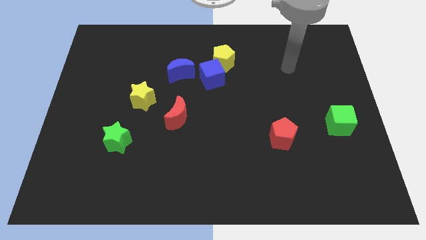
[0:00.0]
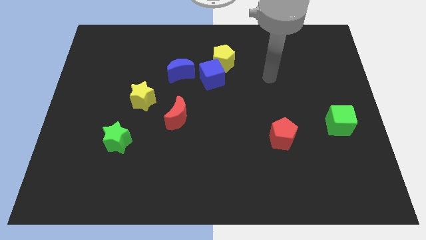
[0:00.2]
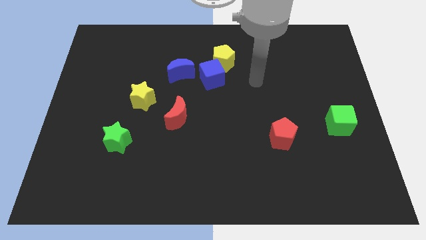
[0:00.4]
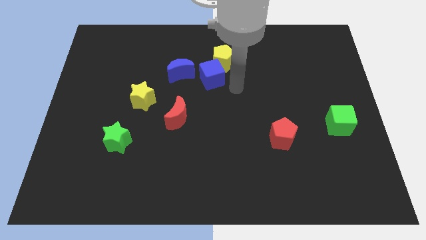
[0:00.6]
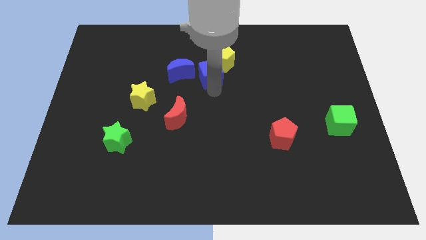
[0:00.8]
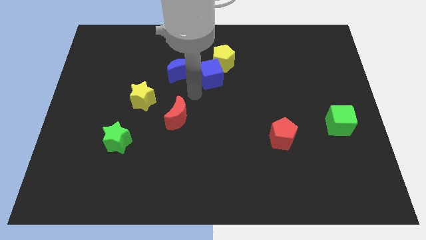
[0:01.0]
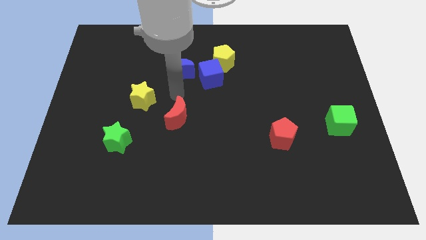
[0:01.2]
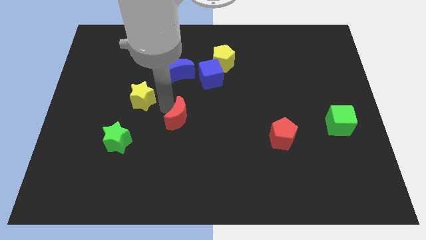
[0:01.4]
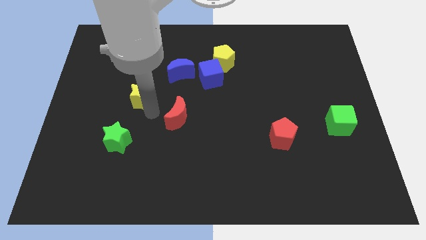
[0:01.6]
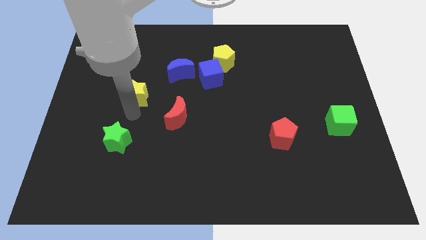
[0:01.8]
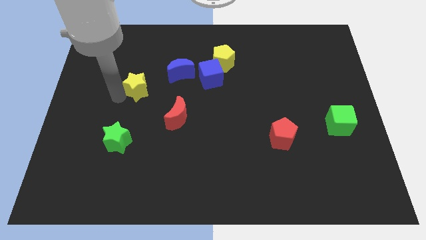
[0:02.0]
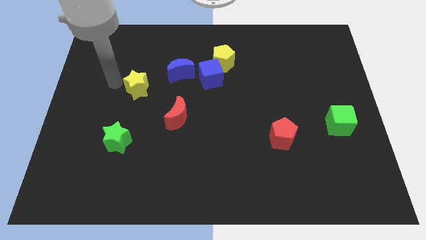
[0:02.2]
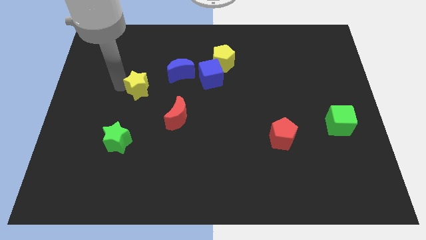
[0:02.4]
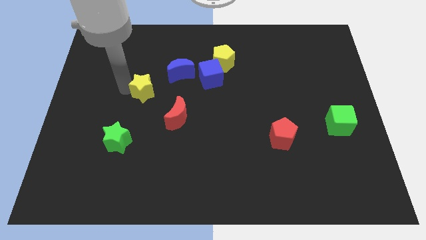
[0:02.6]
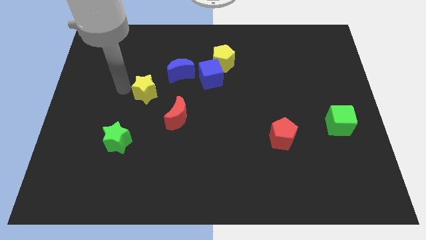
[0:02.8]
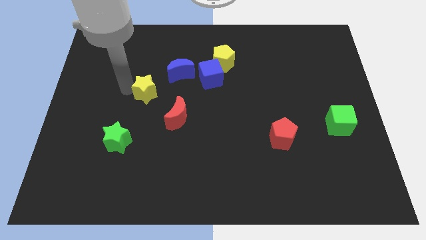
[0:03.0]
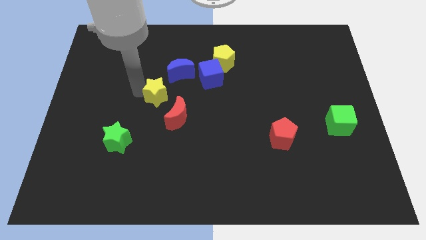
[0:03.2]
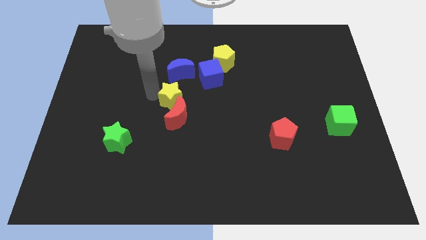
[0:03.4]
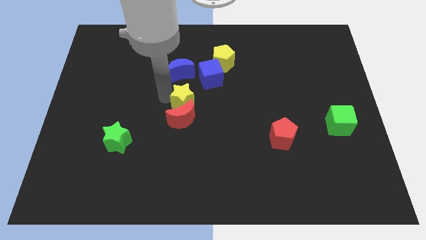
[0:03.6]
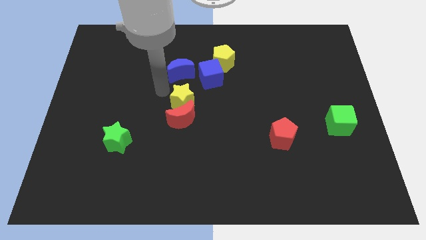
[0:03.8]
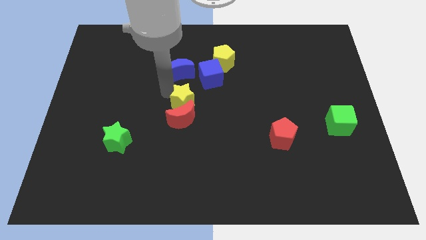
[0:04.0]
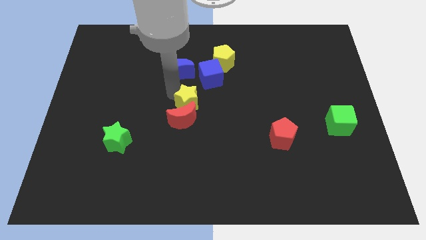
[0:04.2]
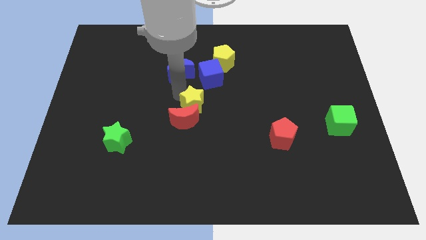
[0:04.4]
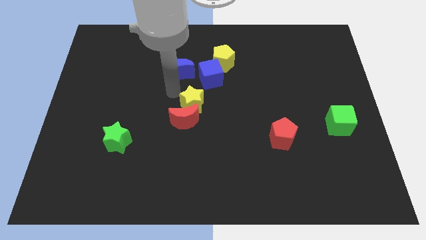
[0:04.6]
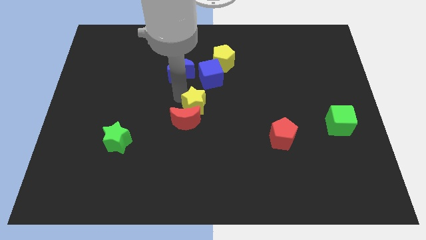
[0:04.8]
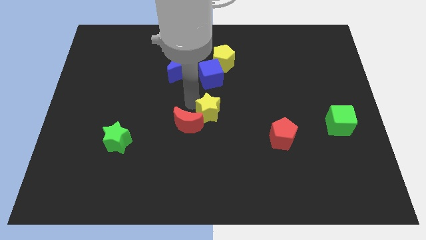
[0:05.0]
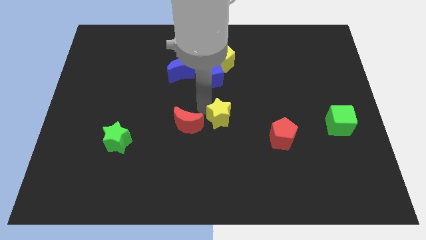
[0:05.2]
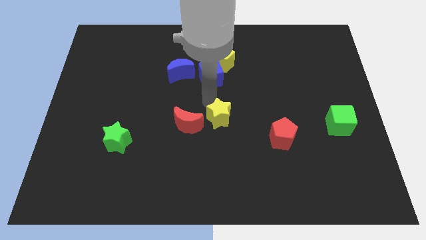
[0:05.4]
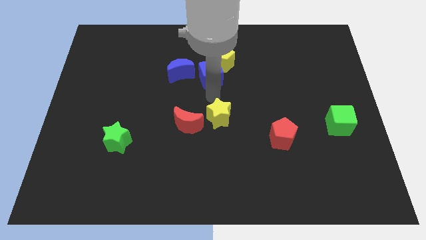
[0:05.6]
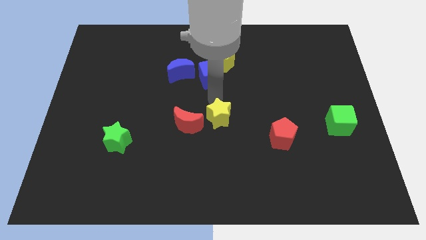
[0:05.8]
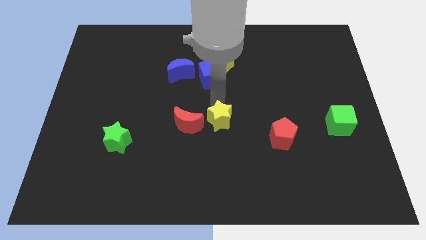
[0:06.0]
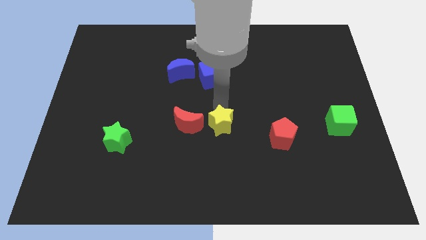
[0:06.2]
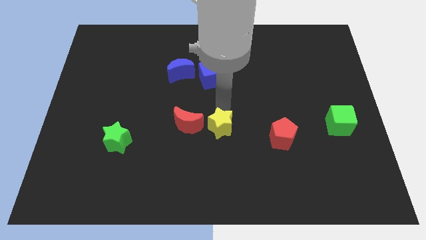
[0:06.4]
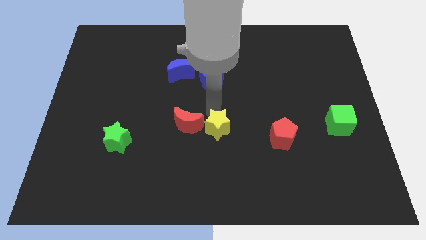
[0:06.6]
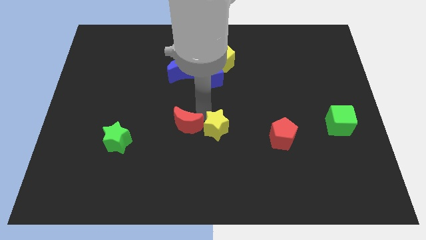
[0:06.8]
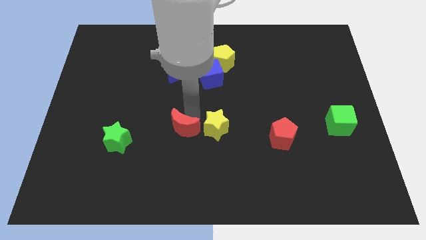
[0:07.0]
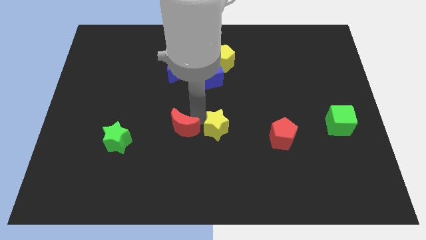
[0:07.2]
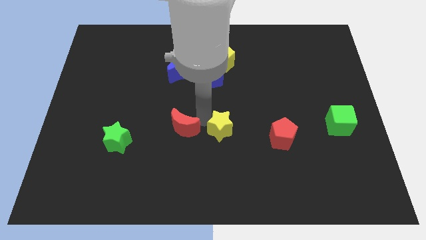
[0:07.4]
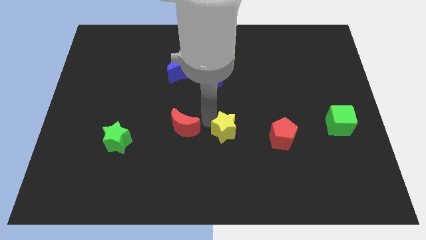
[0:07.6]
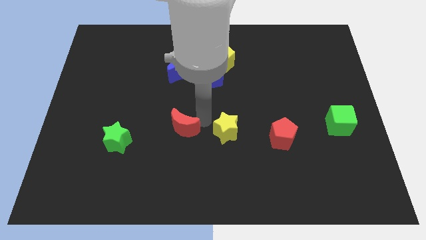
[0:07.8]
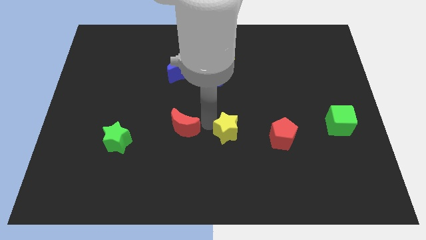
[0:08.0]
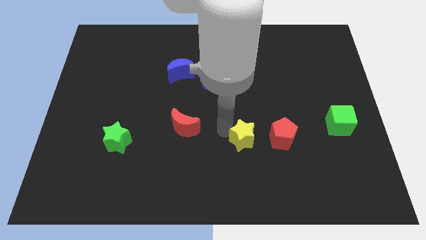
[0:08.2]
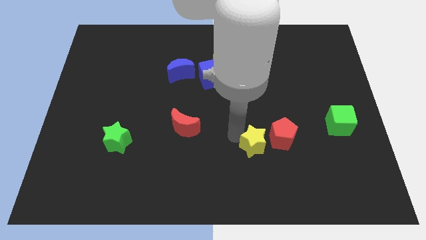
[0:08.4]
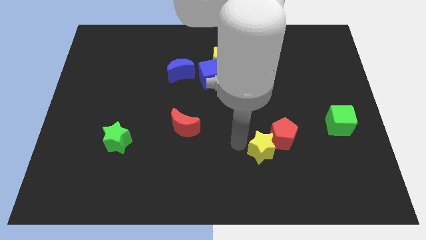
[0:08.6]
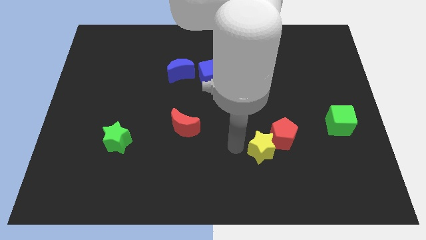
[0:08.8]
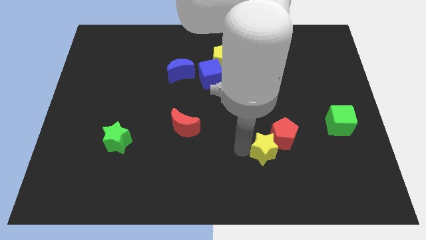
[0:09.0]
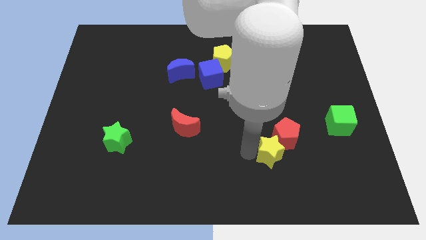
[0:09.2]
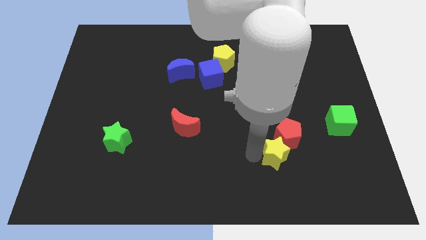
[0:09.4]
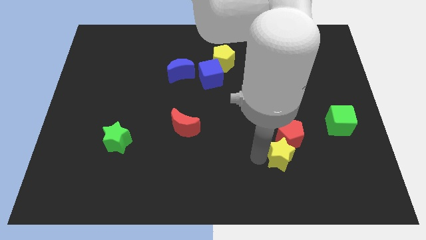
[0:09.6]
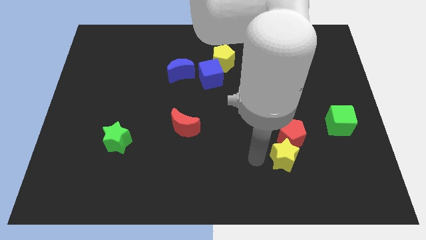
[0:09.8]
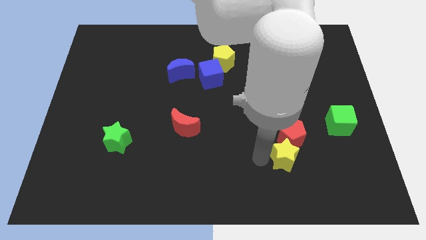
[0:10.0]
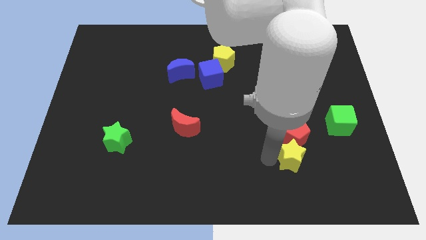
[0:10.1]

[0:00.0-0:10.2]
push the yellow star to the bottom right side of the red pentagon

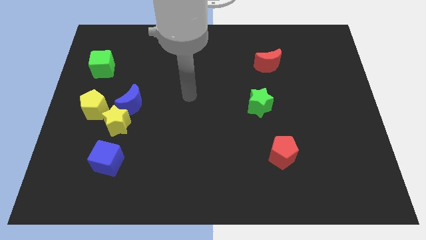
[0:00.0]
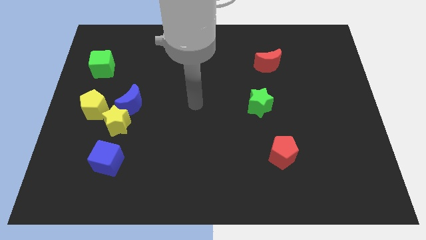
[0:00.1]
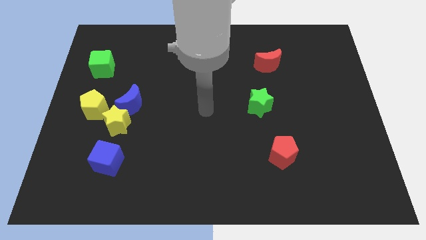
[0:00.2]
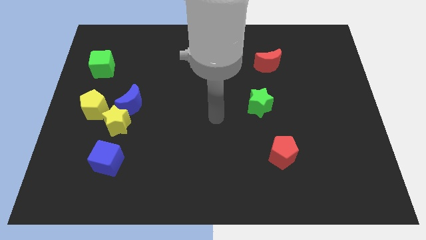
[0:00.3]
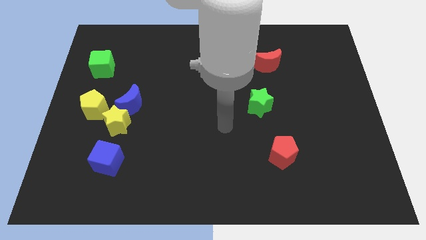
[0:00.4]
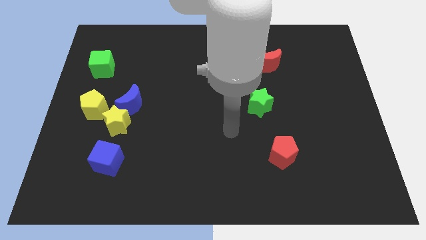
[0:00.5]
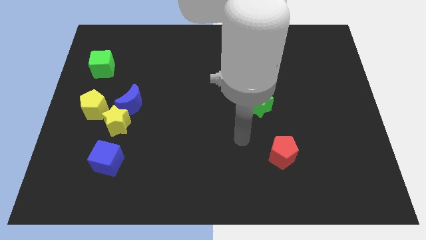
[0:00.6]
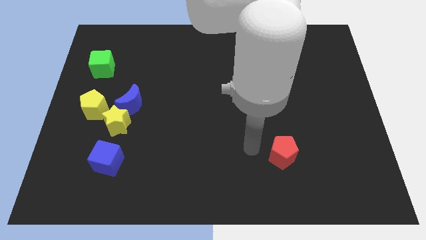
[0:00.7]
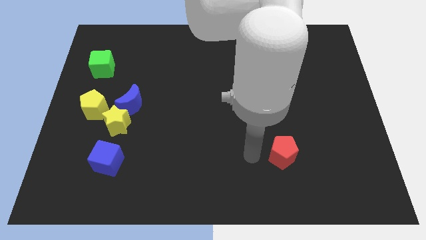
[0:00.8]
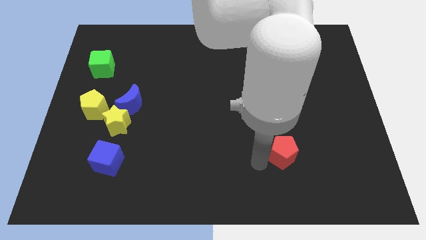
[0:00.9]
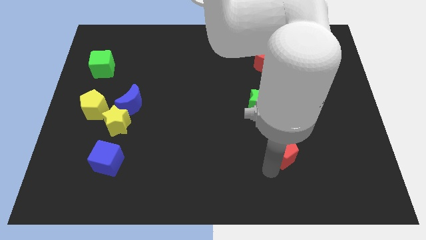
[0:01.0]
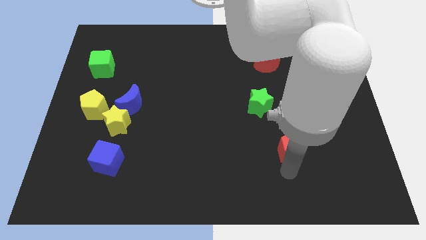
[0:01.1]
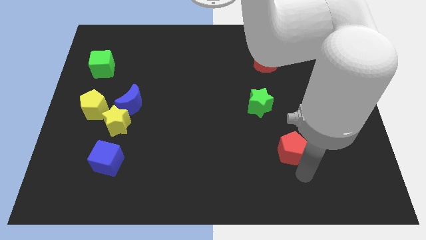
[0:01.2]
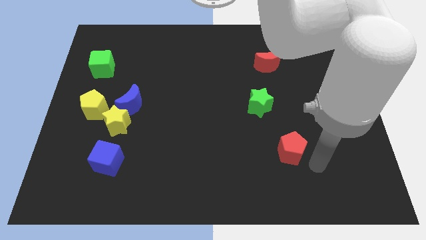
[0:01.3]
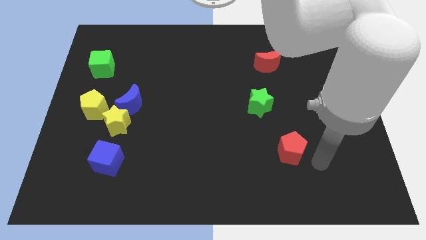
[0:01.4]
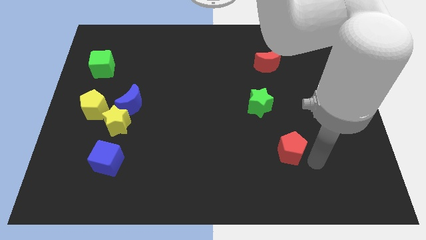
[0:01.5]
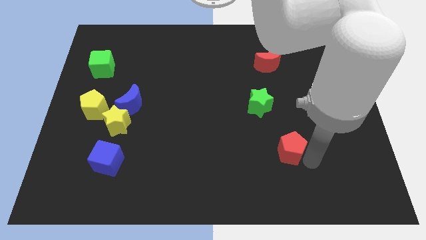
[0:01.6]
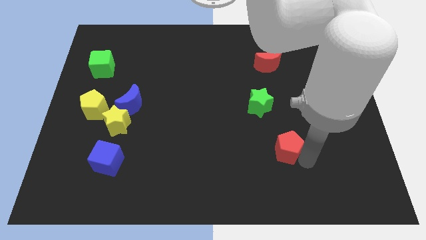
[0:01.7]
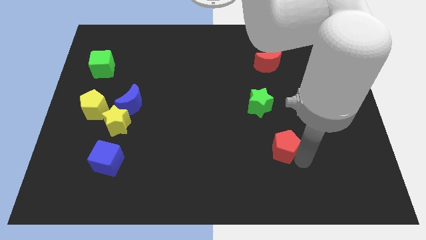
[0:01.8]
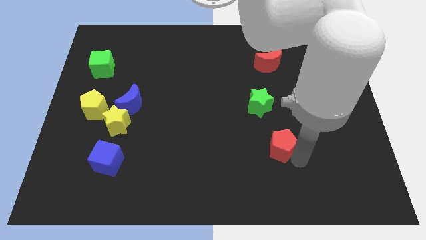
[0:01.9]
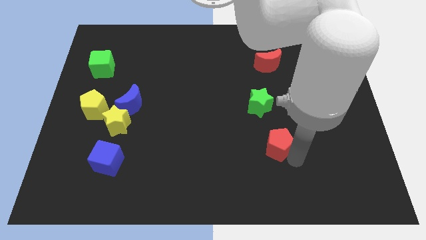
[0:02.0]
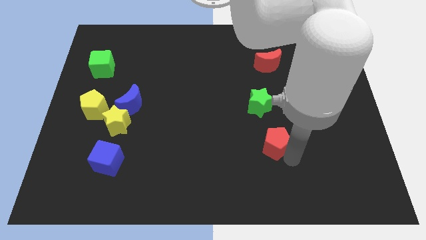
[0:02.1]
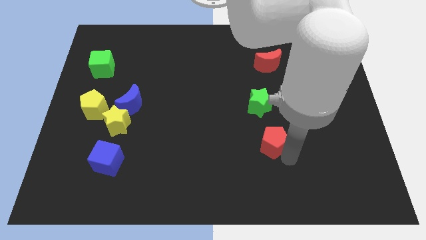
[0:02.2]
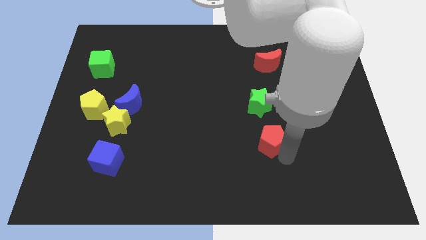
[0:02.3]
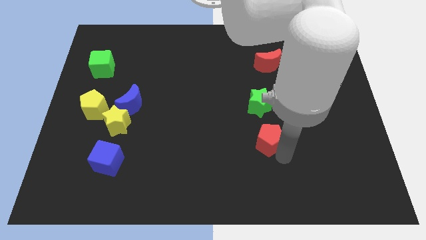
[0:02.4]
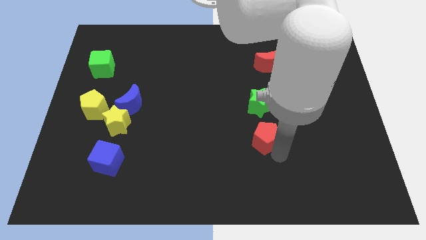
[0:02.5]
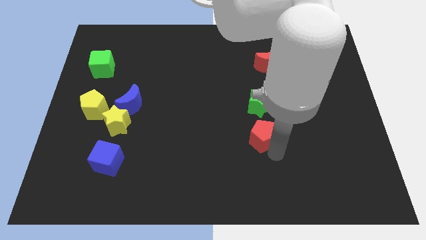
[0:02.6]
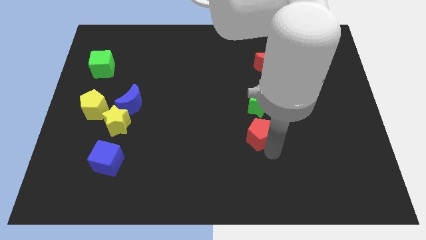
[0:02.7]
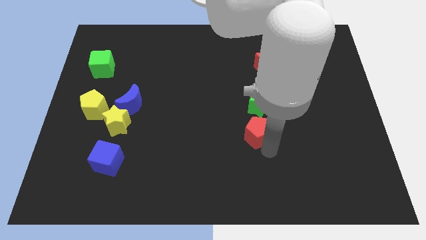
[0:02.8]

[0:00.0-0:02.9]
slide the red pentagon to the bottom left of the green star
